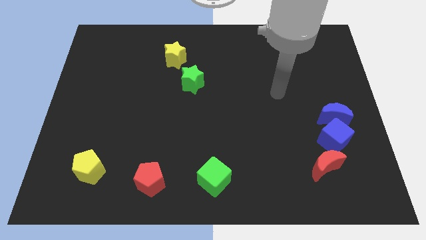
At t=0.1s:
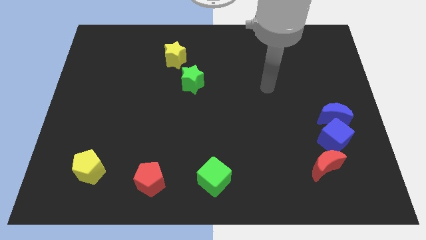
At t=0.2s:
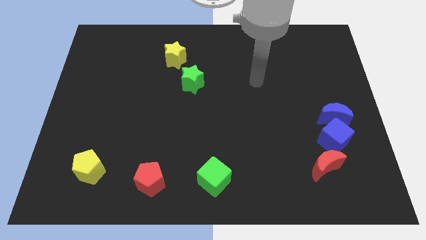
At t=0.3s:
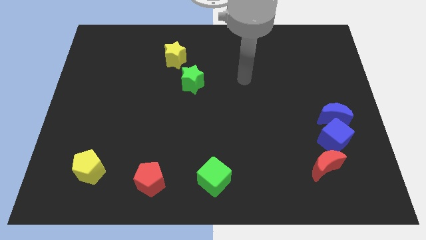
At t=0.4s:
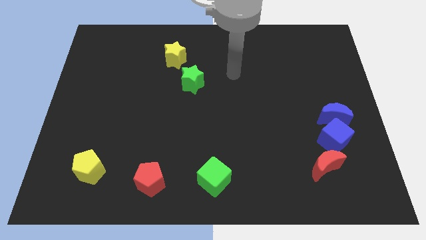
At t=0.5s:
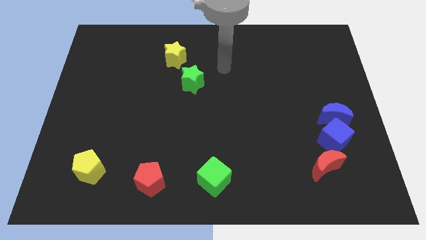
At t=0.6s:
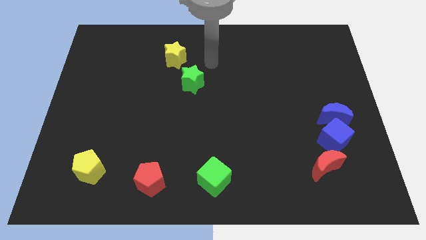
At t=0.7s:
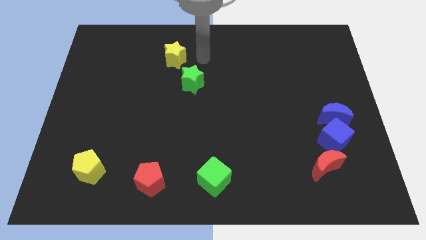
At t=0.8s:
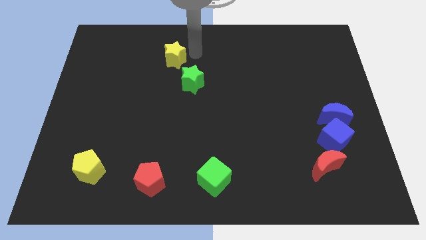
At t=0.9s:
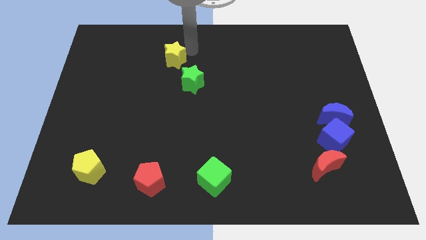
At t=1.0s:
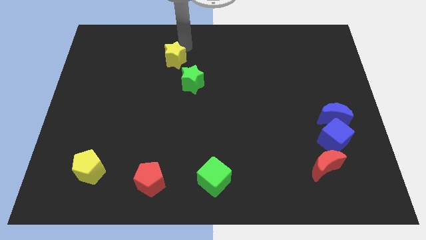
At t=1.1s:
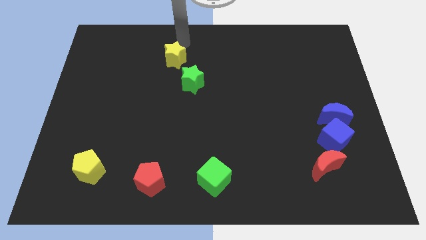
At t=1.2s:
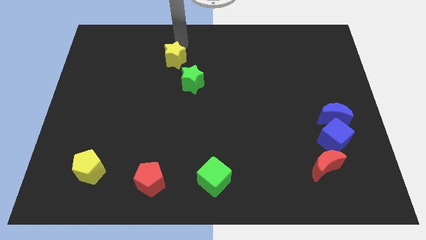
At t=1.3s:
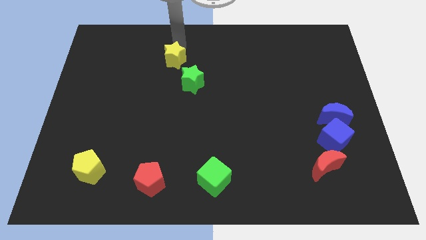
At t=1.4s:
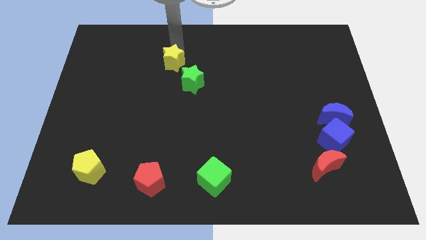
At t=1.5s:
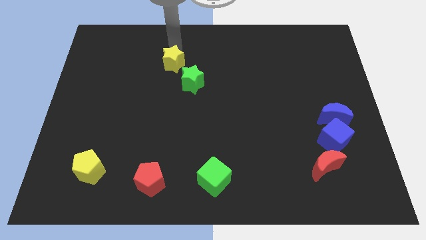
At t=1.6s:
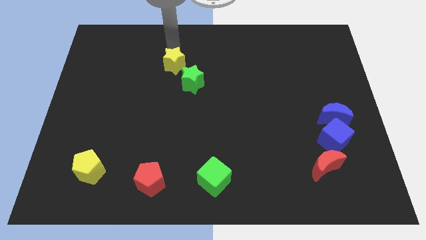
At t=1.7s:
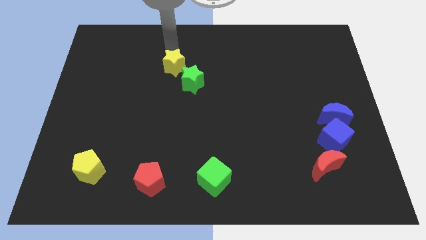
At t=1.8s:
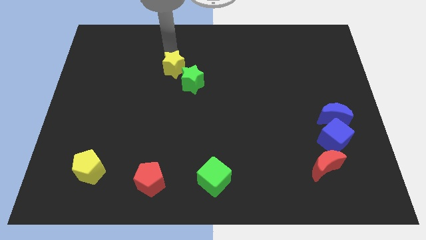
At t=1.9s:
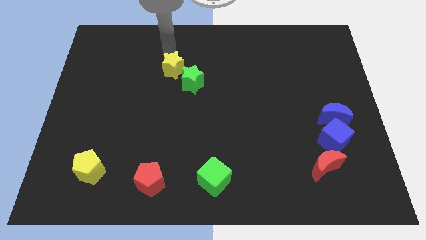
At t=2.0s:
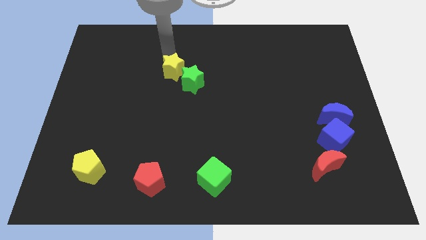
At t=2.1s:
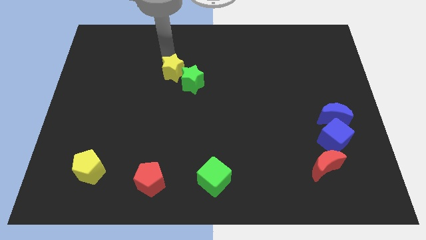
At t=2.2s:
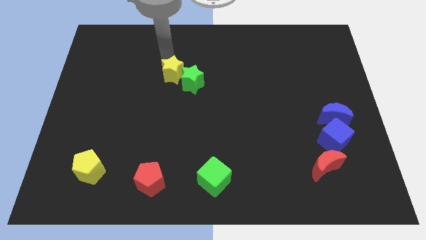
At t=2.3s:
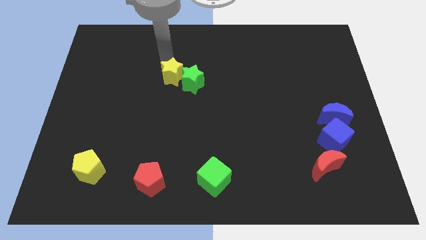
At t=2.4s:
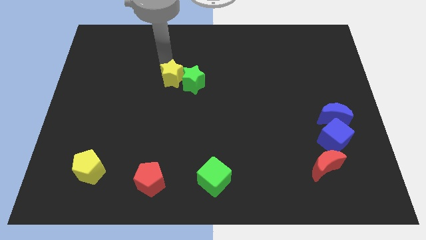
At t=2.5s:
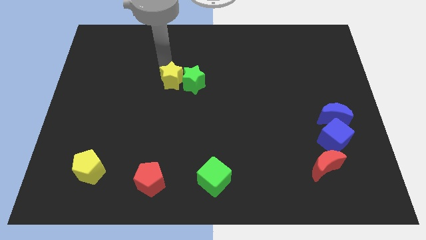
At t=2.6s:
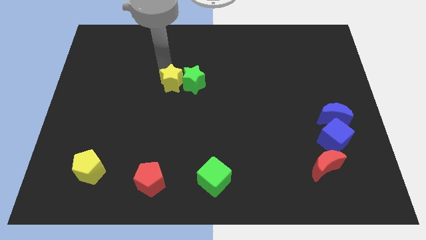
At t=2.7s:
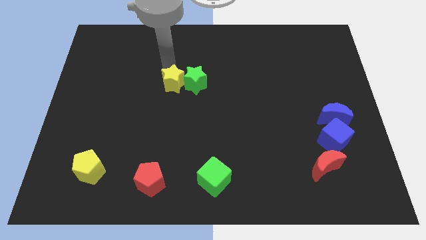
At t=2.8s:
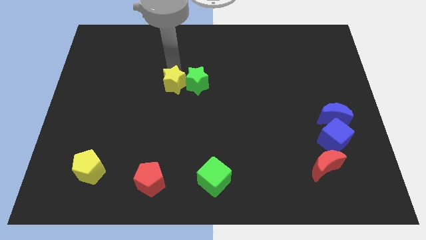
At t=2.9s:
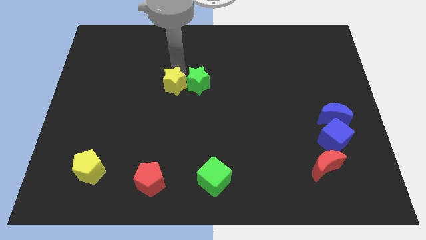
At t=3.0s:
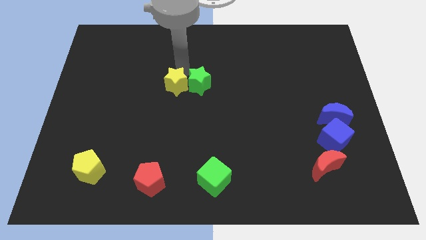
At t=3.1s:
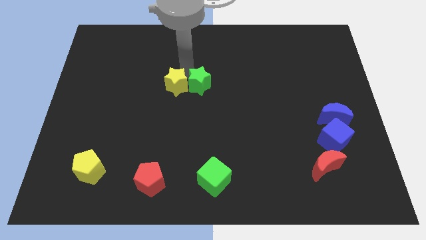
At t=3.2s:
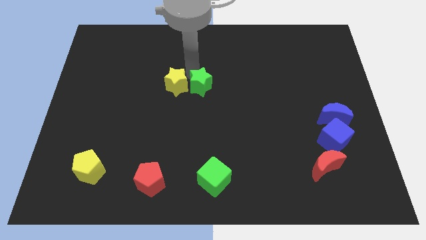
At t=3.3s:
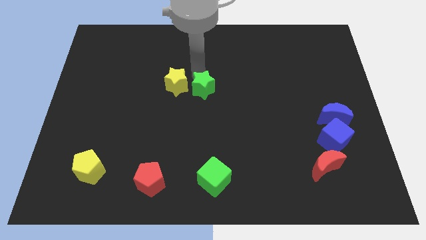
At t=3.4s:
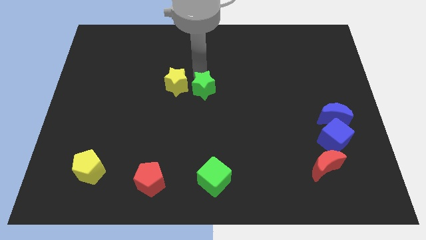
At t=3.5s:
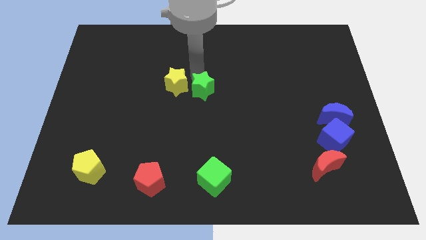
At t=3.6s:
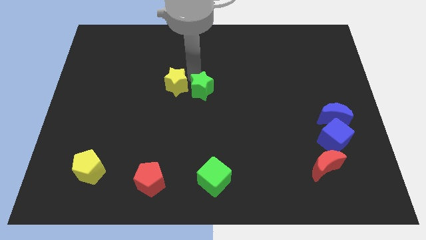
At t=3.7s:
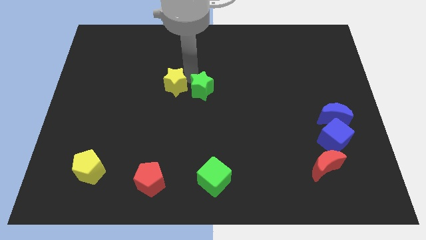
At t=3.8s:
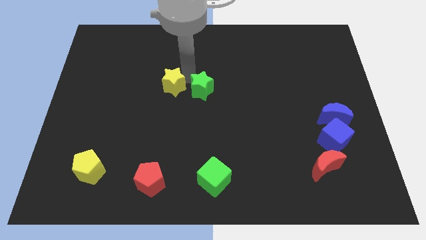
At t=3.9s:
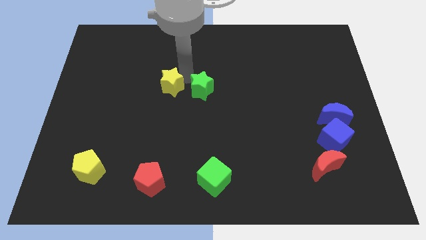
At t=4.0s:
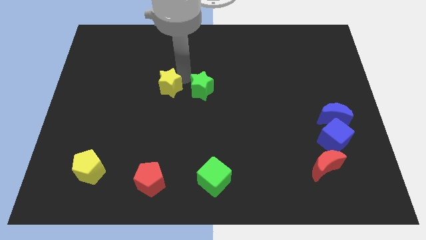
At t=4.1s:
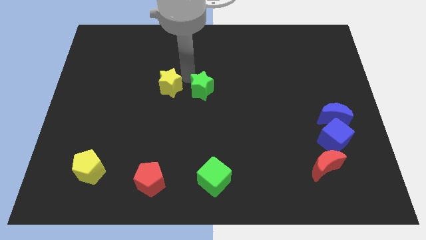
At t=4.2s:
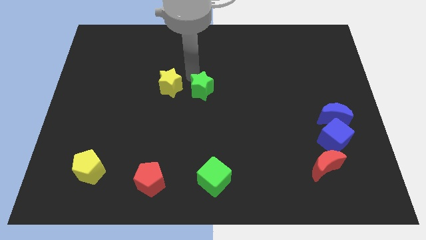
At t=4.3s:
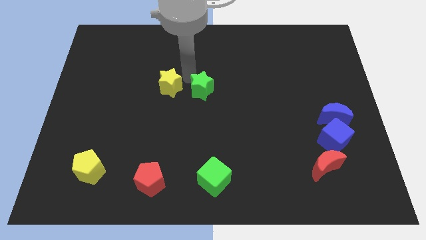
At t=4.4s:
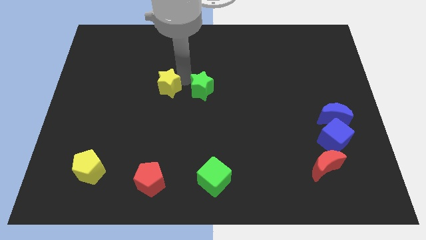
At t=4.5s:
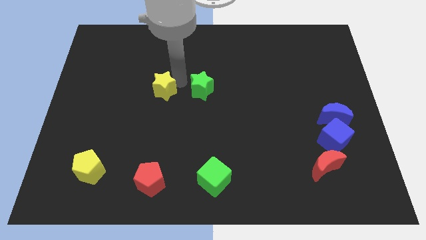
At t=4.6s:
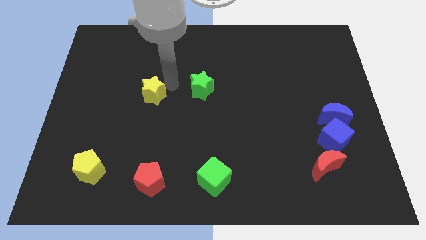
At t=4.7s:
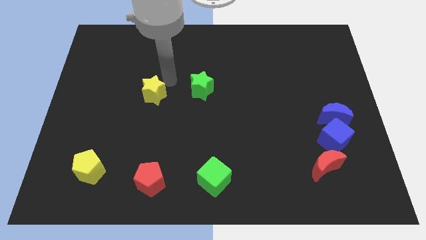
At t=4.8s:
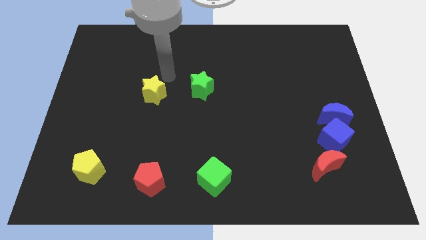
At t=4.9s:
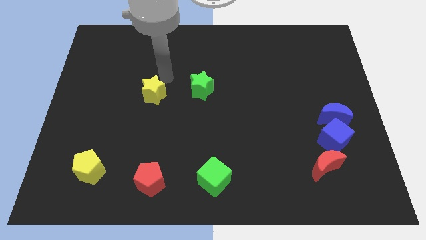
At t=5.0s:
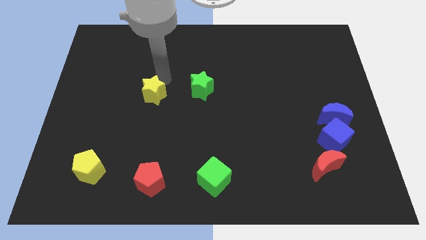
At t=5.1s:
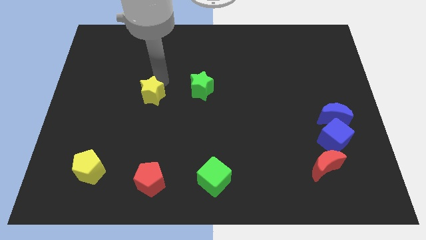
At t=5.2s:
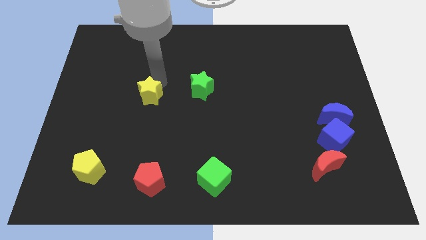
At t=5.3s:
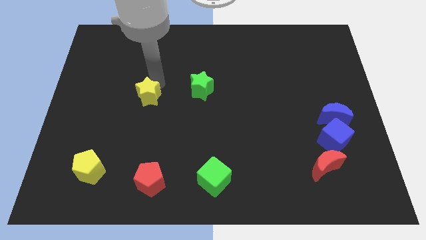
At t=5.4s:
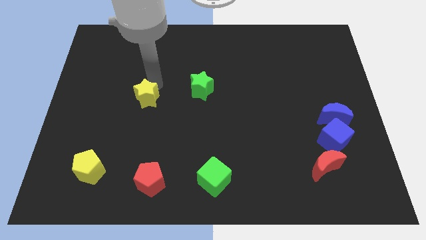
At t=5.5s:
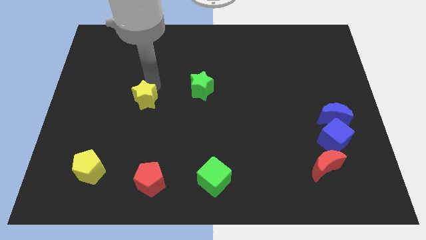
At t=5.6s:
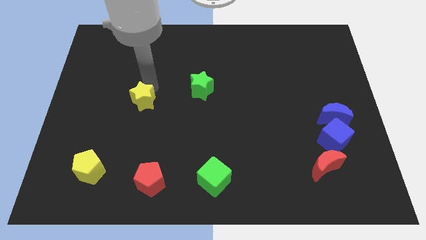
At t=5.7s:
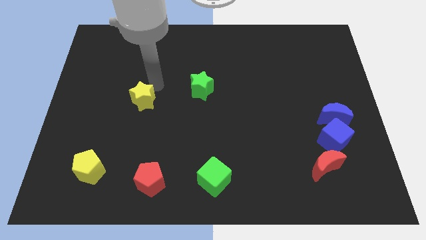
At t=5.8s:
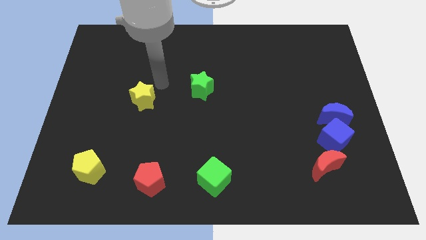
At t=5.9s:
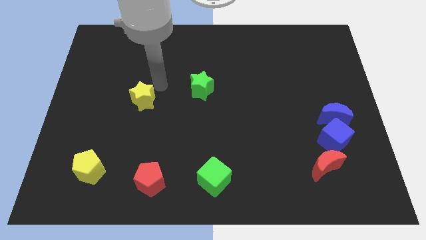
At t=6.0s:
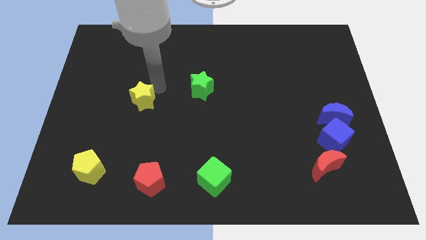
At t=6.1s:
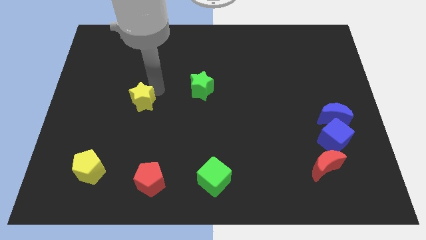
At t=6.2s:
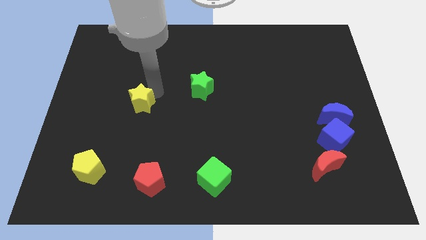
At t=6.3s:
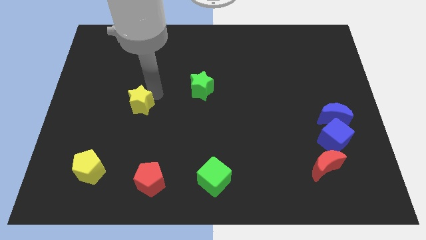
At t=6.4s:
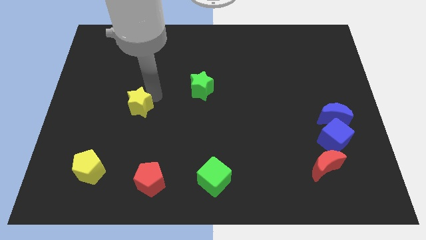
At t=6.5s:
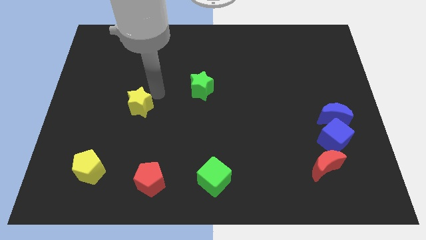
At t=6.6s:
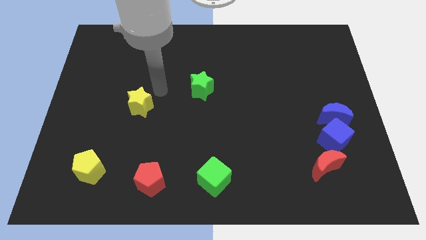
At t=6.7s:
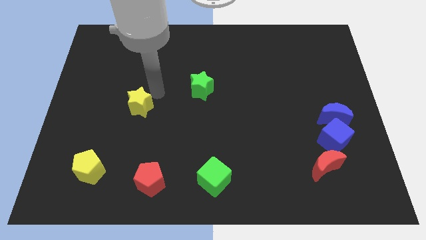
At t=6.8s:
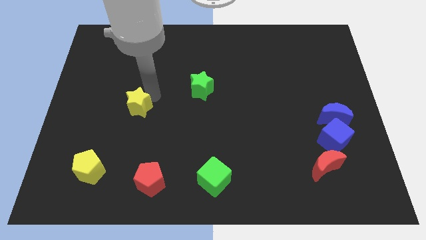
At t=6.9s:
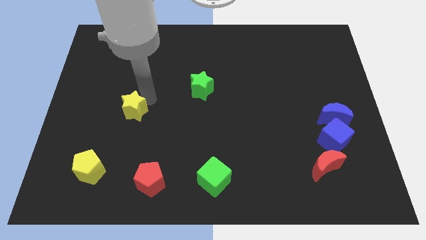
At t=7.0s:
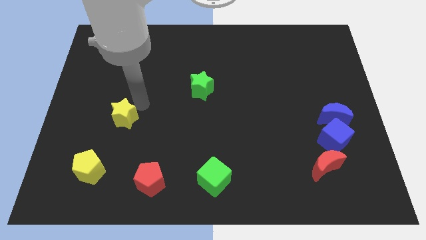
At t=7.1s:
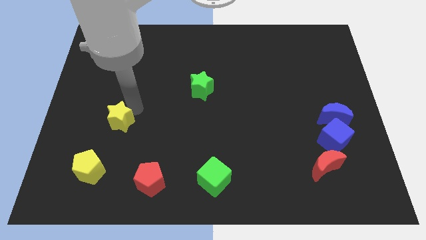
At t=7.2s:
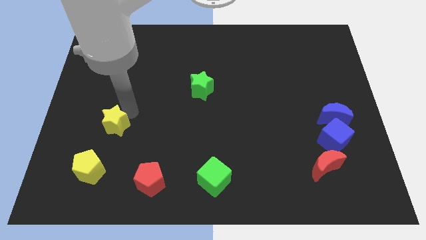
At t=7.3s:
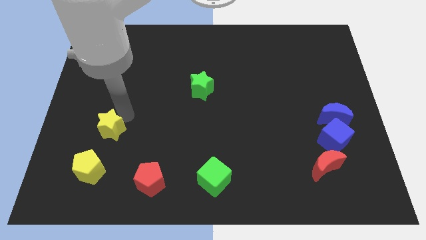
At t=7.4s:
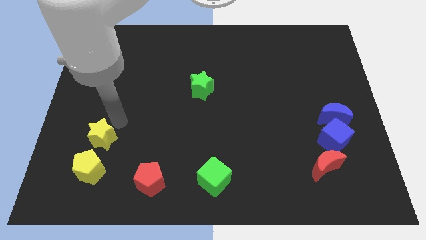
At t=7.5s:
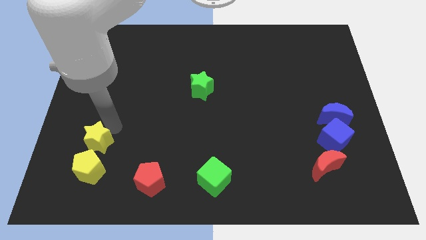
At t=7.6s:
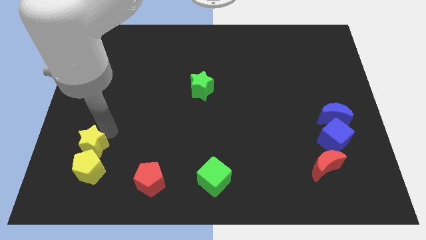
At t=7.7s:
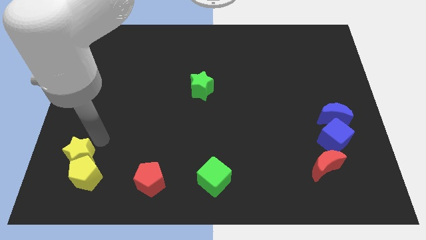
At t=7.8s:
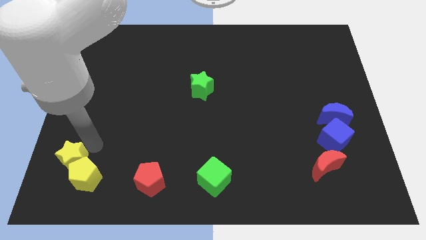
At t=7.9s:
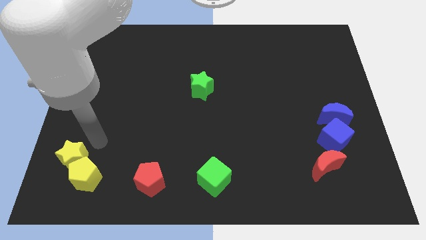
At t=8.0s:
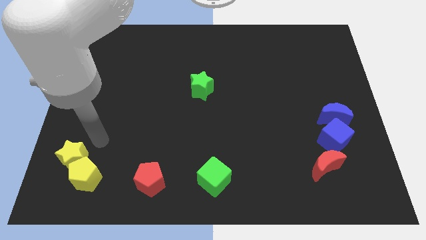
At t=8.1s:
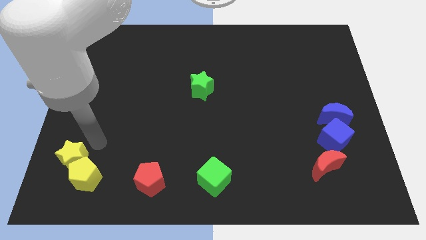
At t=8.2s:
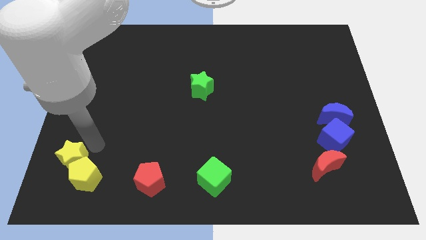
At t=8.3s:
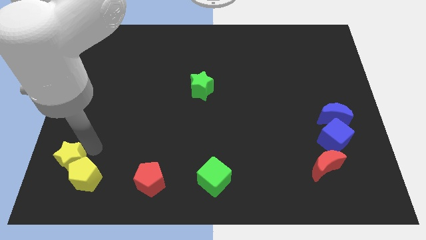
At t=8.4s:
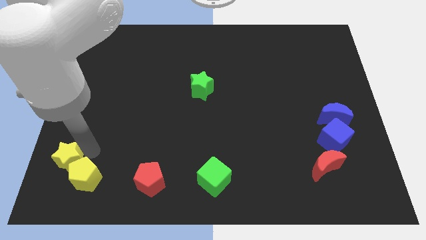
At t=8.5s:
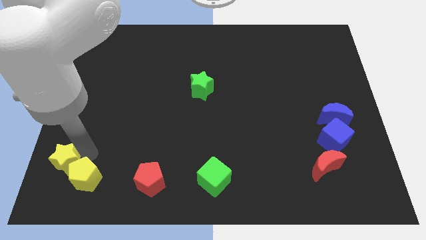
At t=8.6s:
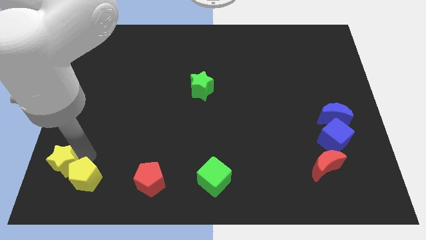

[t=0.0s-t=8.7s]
push the yellow star to the bottom left corner
